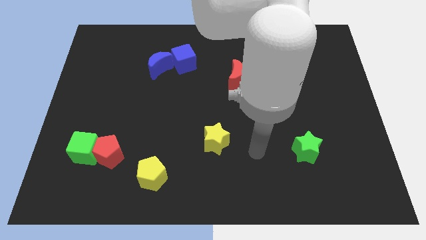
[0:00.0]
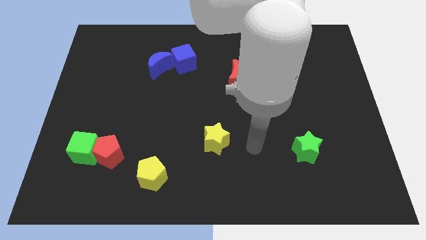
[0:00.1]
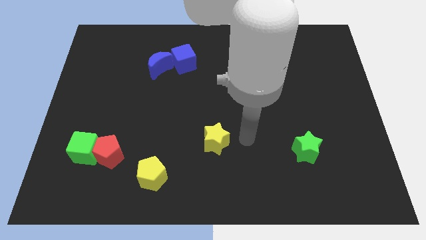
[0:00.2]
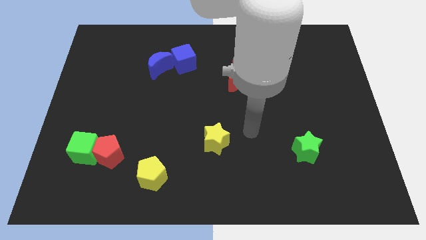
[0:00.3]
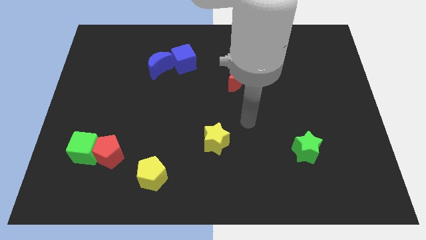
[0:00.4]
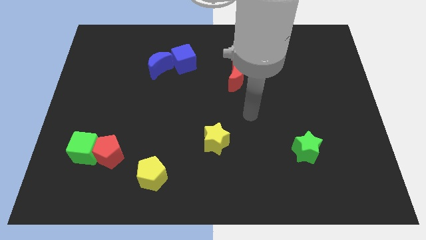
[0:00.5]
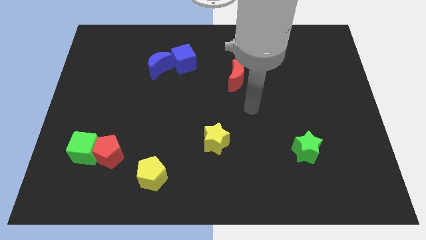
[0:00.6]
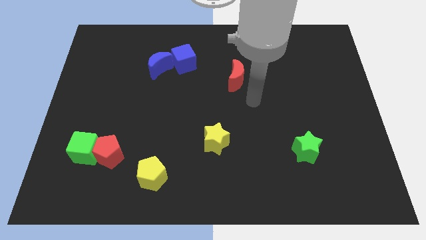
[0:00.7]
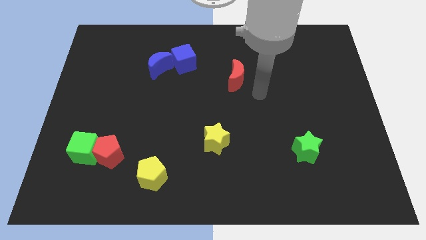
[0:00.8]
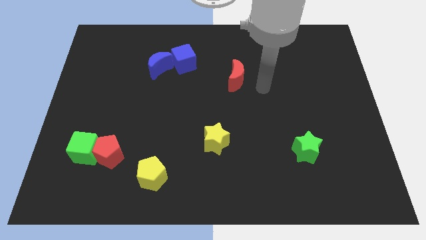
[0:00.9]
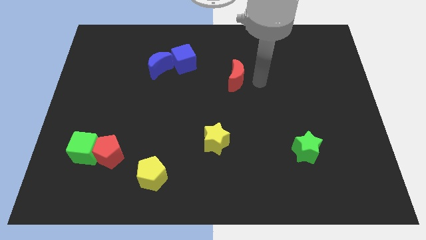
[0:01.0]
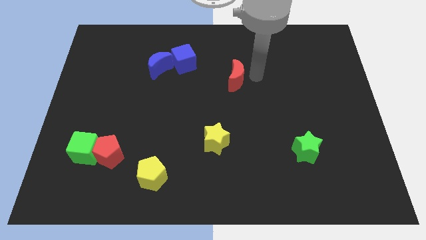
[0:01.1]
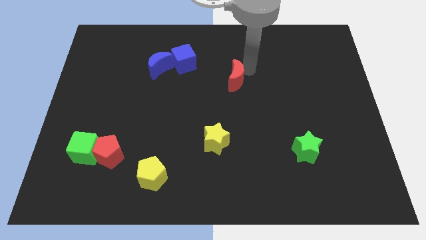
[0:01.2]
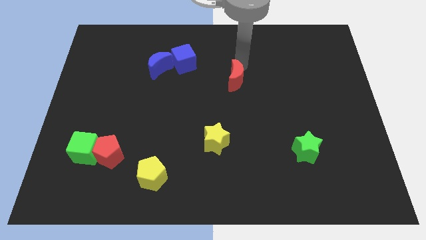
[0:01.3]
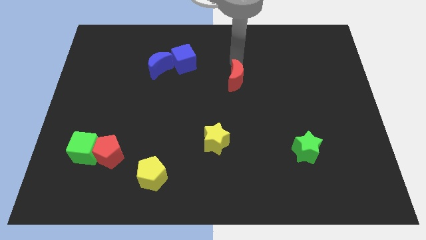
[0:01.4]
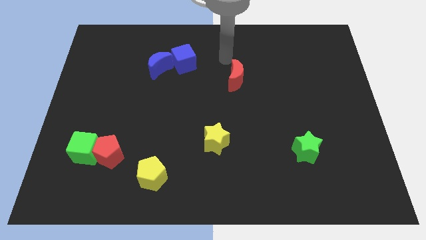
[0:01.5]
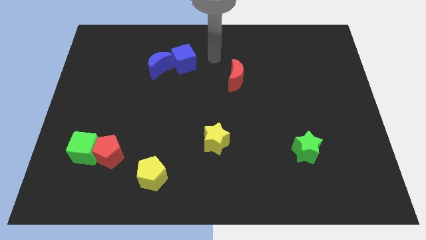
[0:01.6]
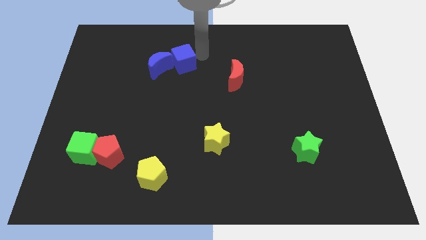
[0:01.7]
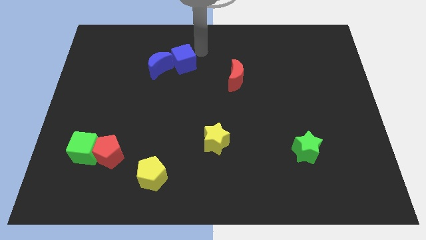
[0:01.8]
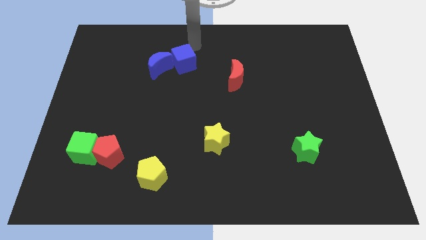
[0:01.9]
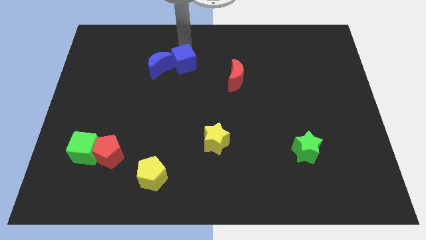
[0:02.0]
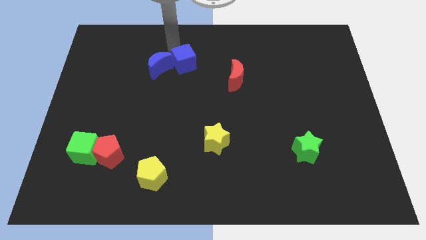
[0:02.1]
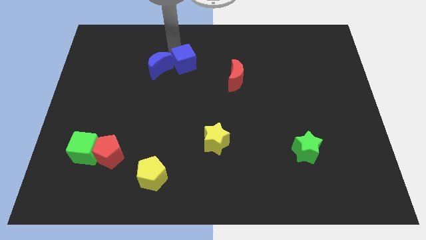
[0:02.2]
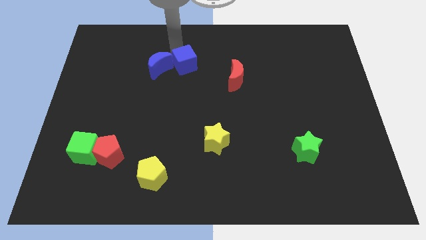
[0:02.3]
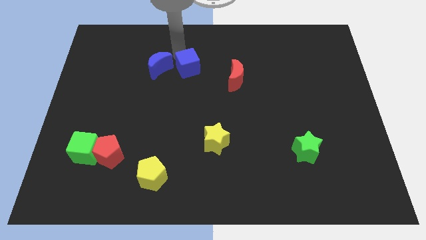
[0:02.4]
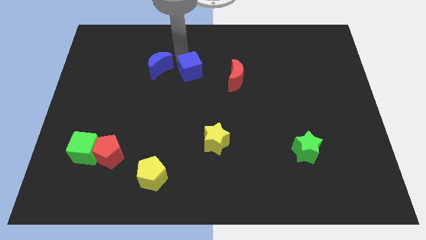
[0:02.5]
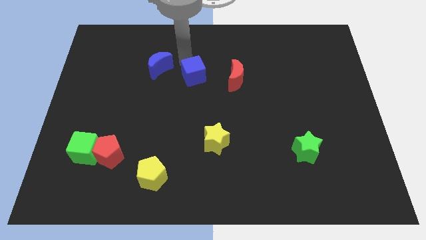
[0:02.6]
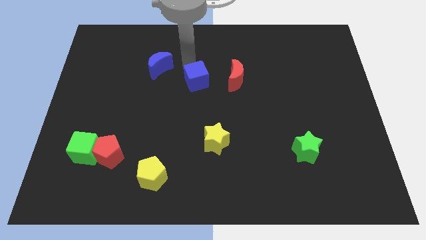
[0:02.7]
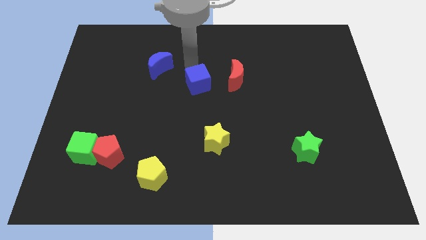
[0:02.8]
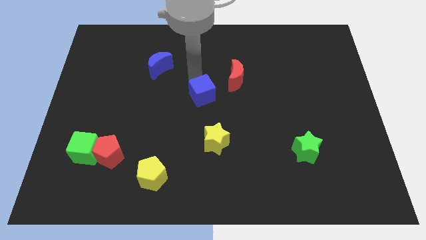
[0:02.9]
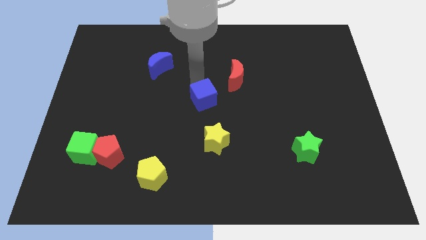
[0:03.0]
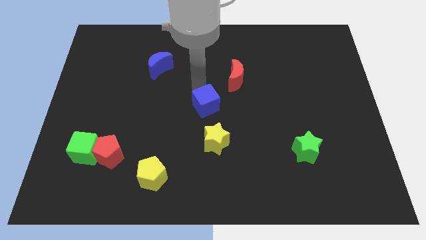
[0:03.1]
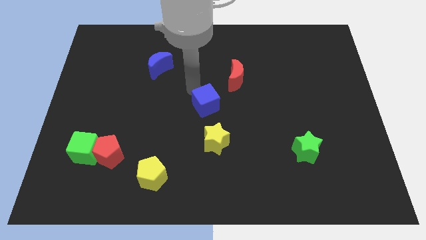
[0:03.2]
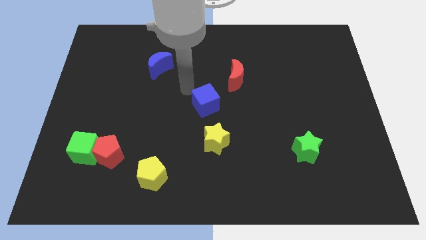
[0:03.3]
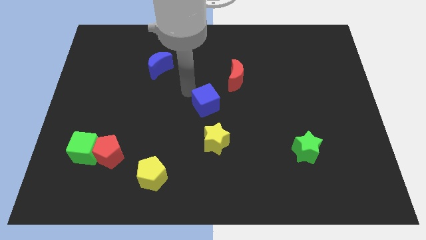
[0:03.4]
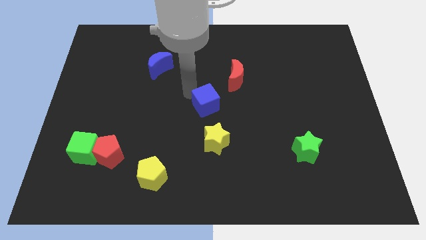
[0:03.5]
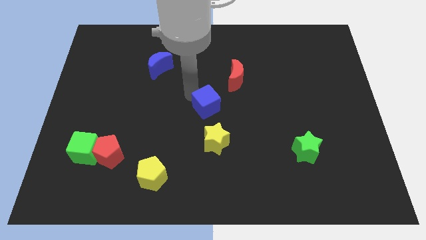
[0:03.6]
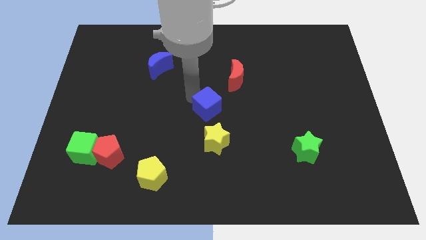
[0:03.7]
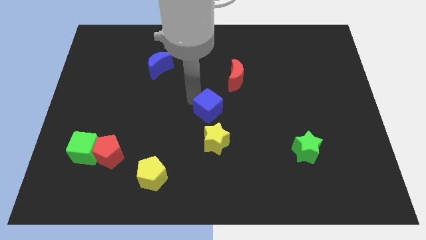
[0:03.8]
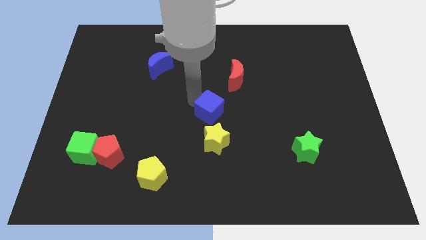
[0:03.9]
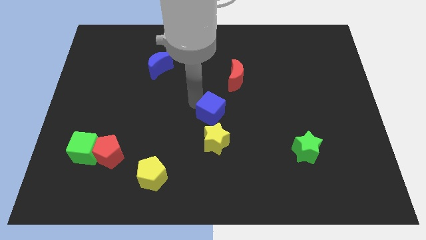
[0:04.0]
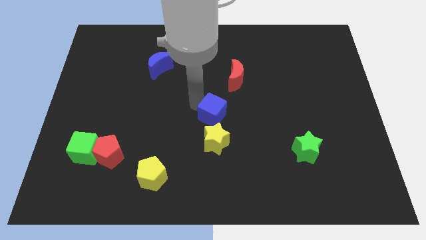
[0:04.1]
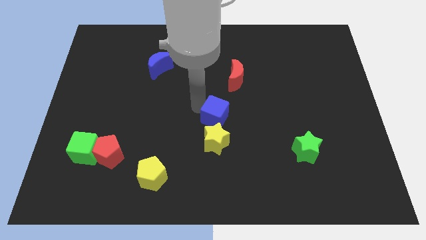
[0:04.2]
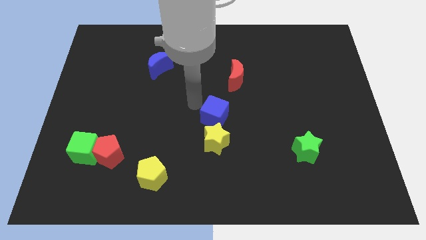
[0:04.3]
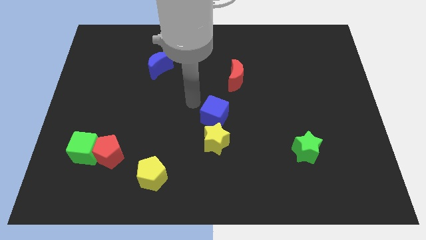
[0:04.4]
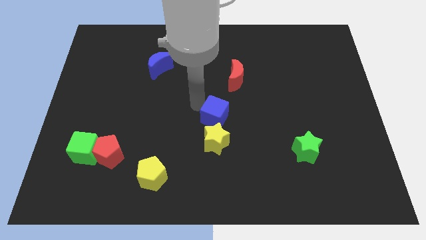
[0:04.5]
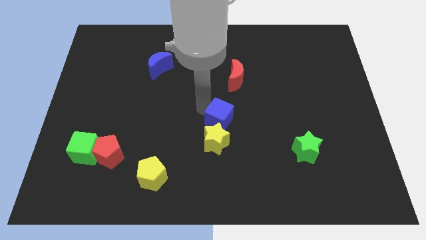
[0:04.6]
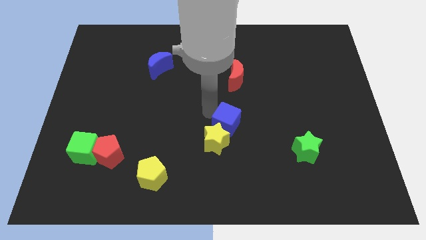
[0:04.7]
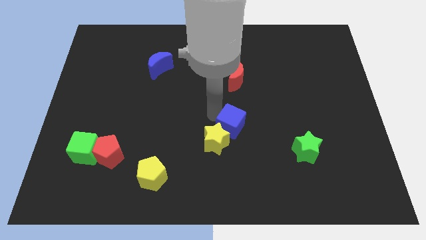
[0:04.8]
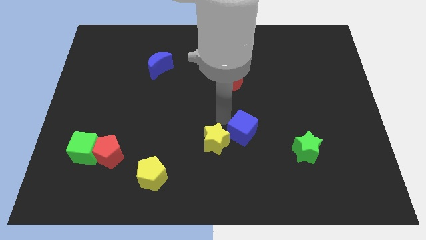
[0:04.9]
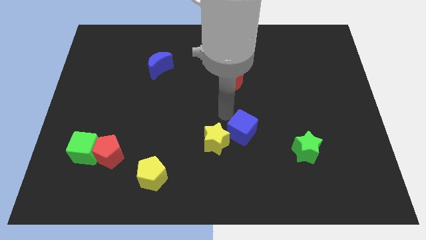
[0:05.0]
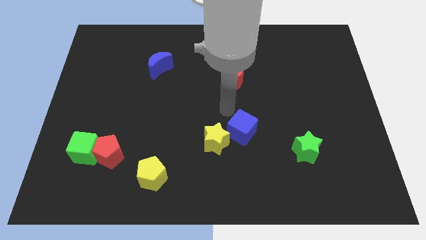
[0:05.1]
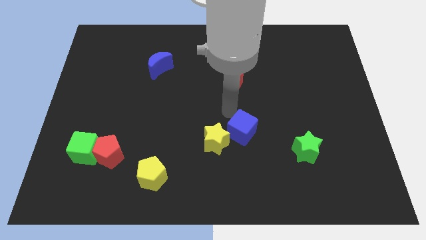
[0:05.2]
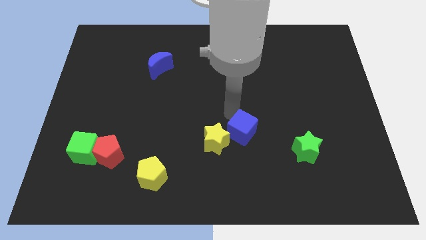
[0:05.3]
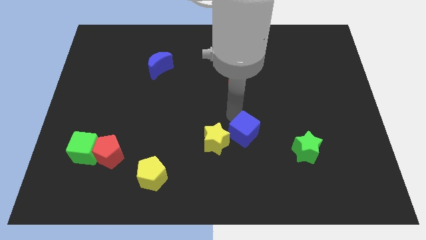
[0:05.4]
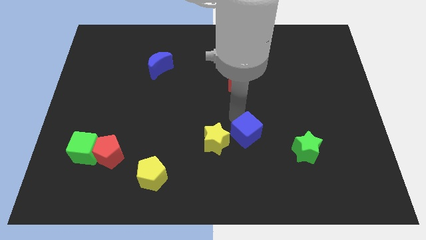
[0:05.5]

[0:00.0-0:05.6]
put the blue cube just left of the green star
